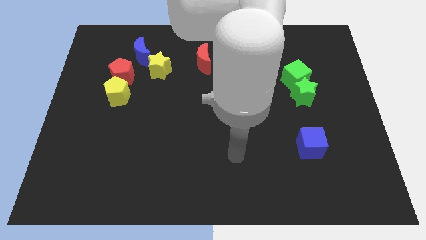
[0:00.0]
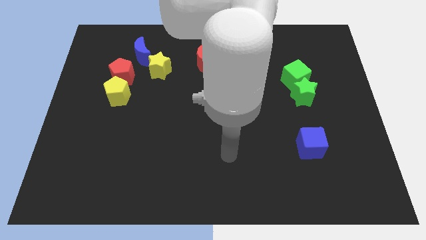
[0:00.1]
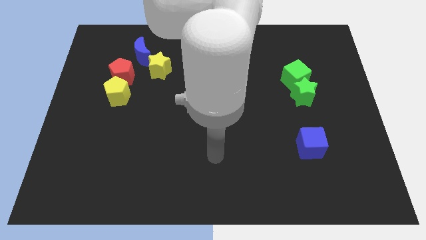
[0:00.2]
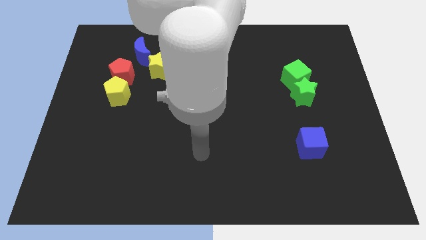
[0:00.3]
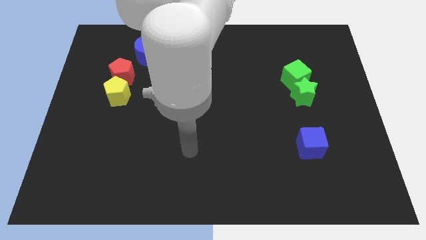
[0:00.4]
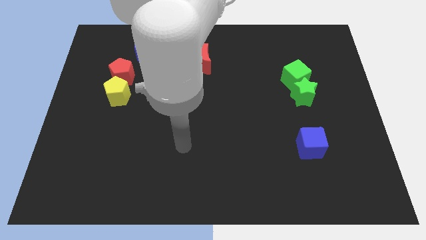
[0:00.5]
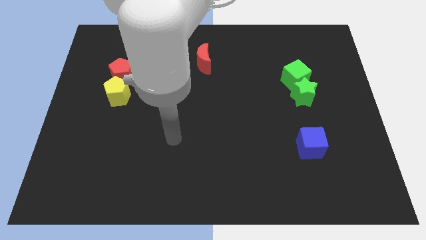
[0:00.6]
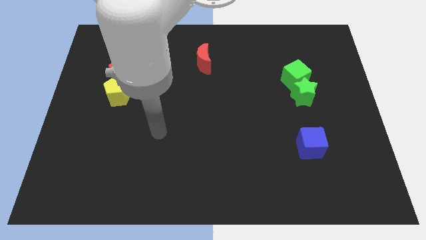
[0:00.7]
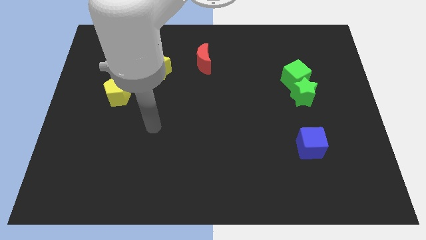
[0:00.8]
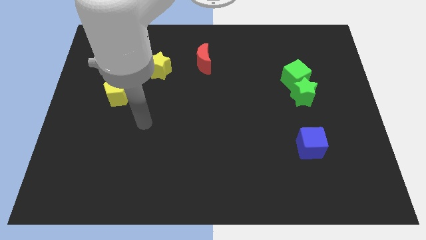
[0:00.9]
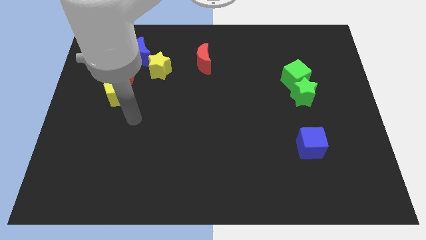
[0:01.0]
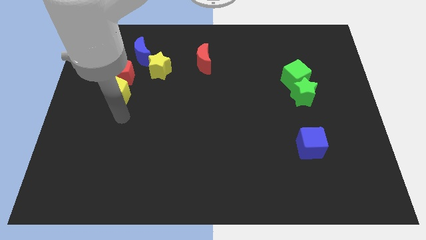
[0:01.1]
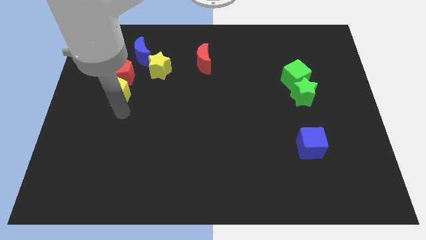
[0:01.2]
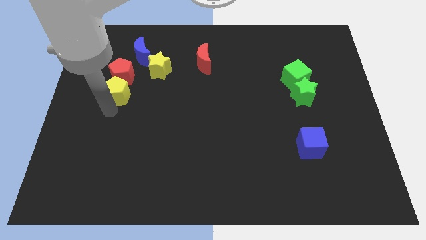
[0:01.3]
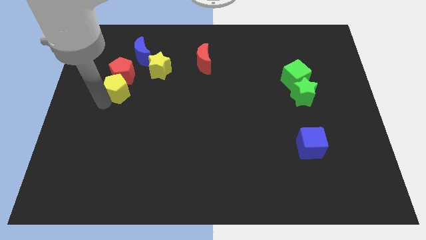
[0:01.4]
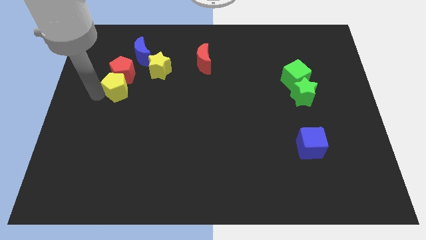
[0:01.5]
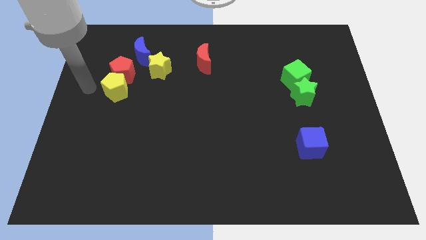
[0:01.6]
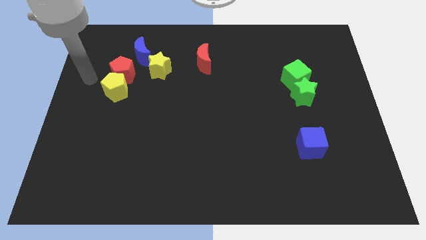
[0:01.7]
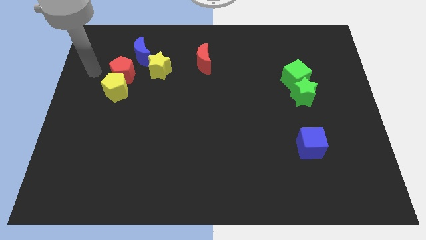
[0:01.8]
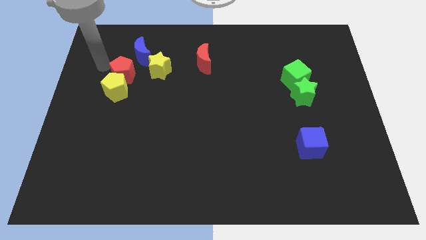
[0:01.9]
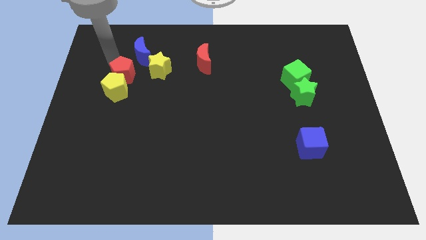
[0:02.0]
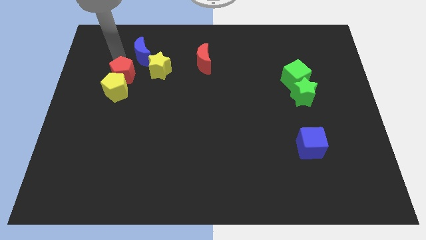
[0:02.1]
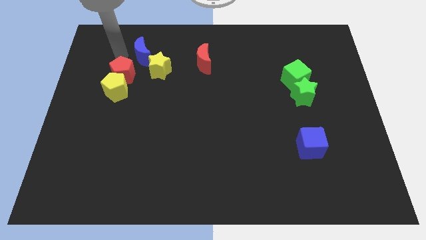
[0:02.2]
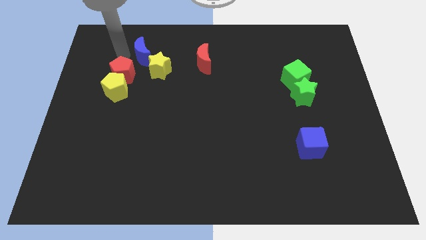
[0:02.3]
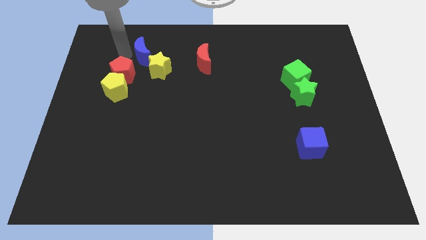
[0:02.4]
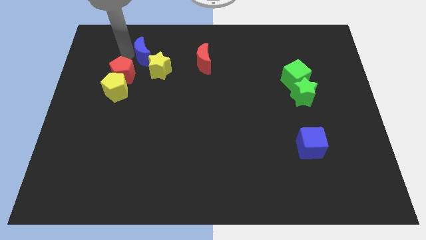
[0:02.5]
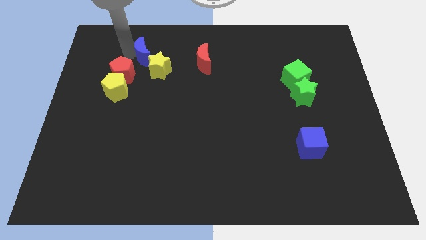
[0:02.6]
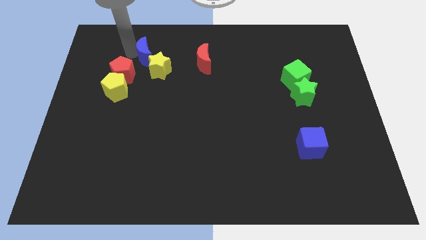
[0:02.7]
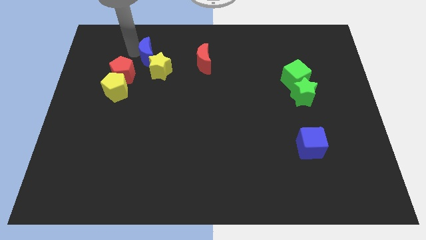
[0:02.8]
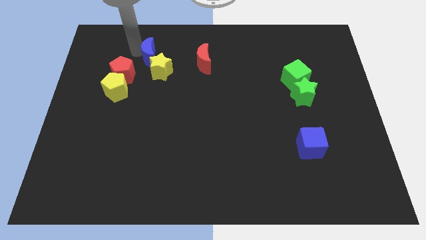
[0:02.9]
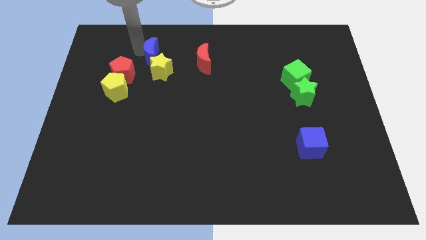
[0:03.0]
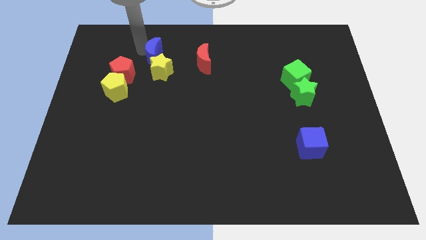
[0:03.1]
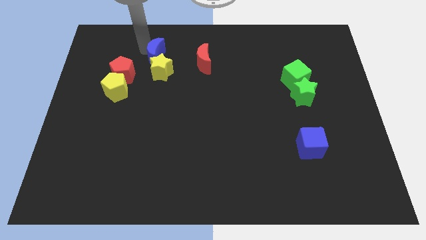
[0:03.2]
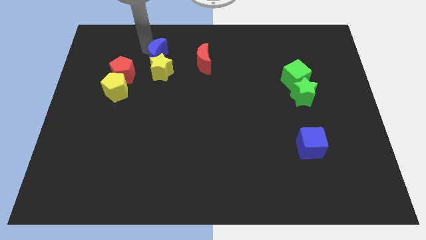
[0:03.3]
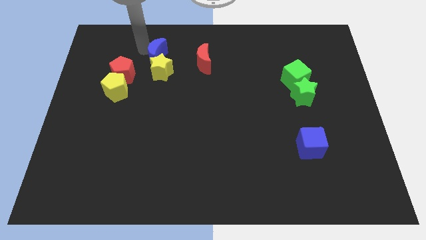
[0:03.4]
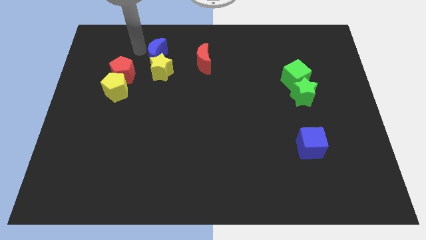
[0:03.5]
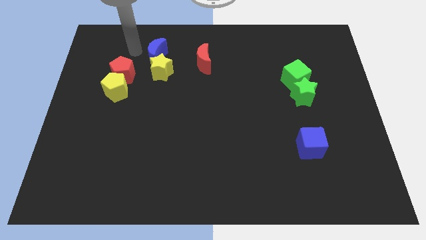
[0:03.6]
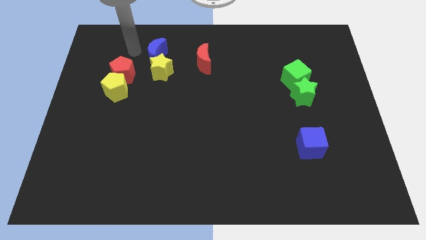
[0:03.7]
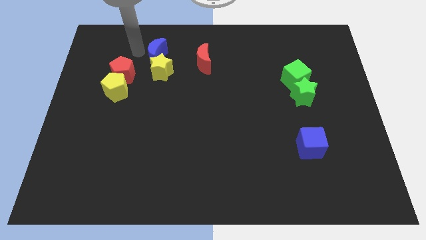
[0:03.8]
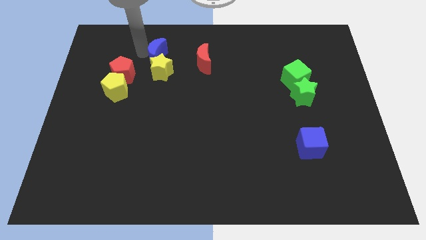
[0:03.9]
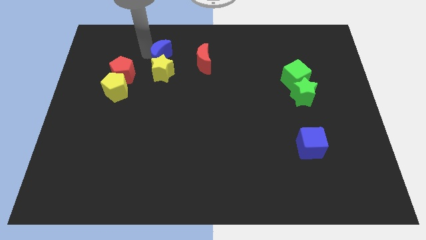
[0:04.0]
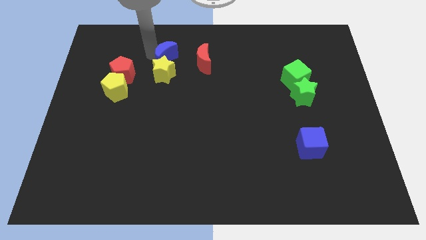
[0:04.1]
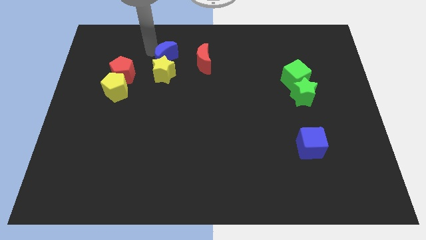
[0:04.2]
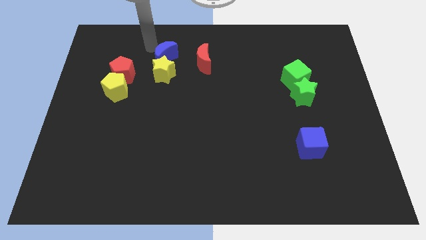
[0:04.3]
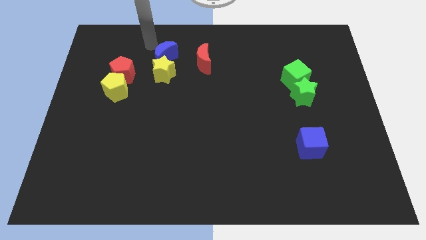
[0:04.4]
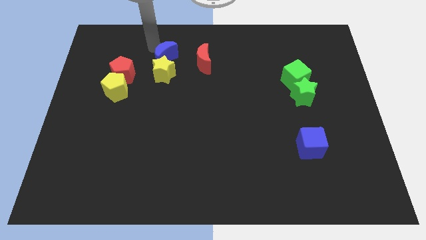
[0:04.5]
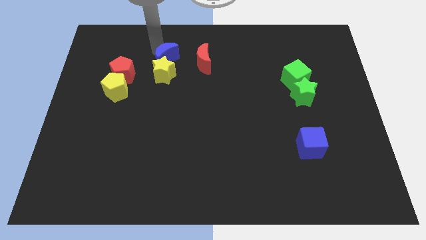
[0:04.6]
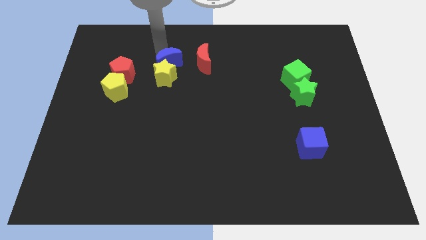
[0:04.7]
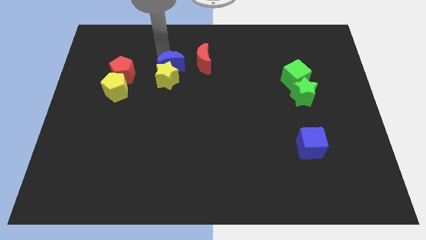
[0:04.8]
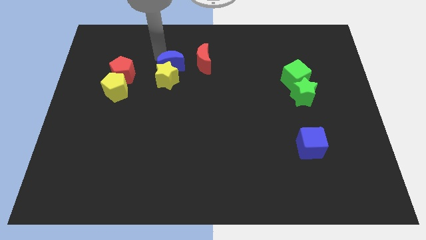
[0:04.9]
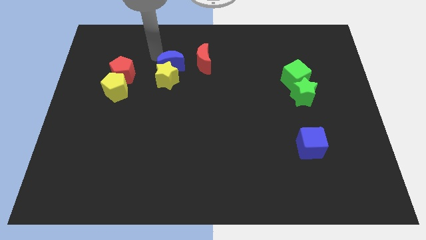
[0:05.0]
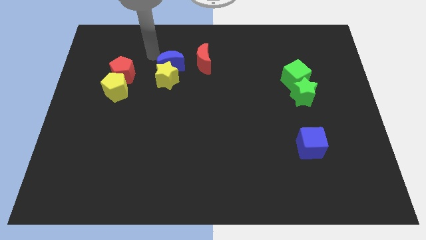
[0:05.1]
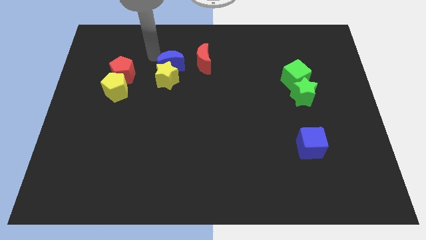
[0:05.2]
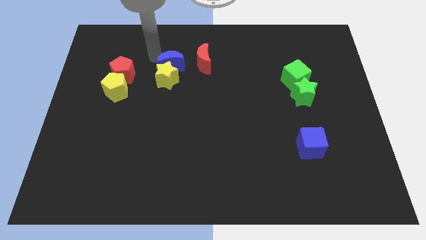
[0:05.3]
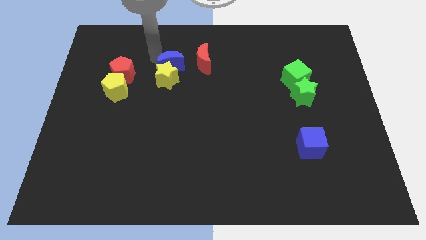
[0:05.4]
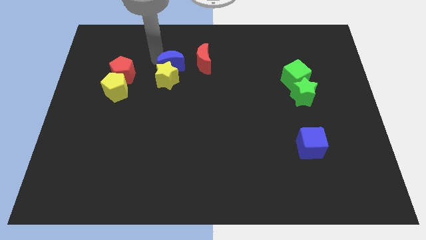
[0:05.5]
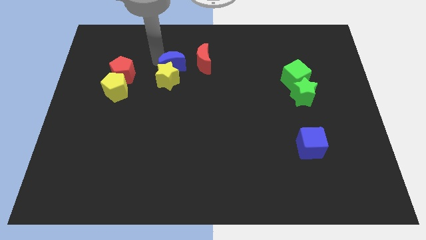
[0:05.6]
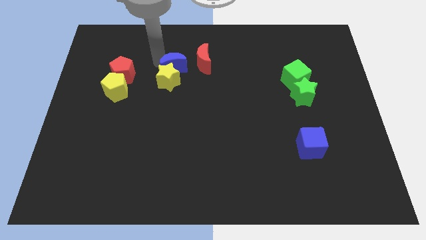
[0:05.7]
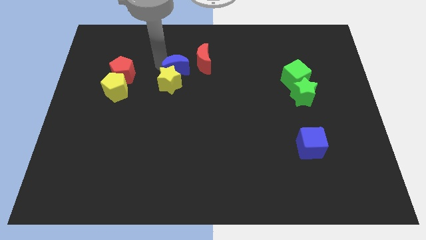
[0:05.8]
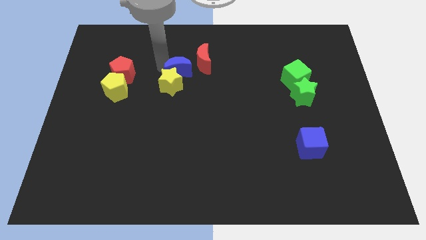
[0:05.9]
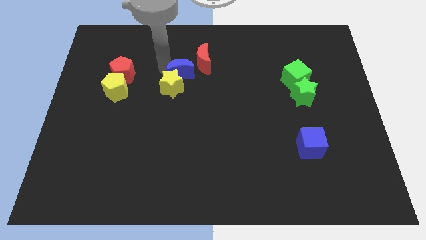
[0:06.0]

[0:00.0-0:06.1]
put the blue moon to the middle

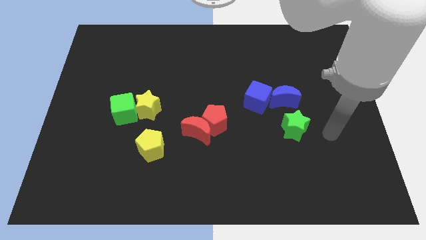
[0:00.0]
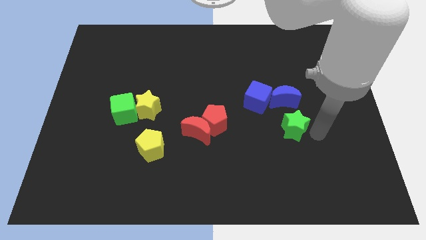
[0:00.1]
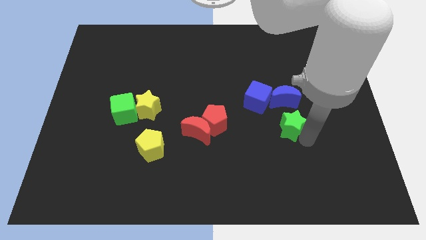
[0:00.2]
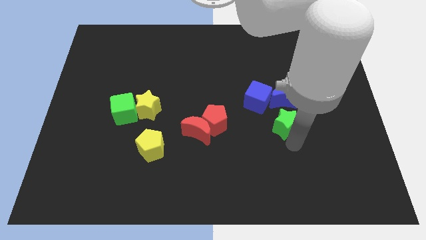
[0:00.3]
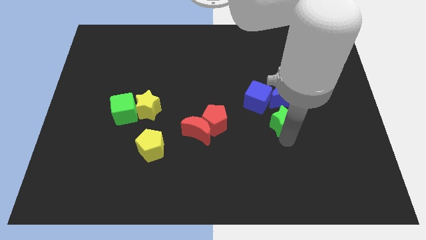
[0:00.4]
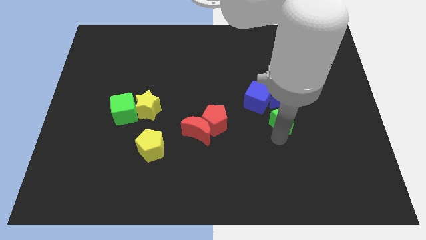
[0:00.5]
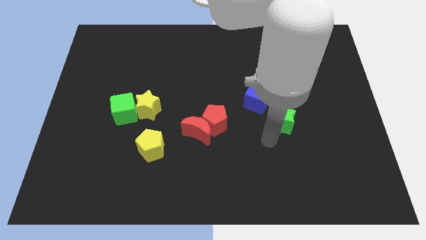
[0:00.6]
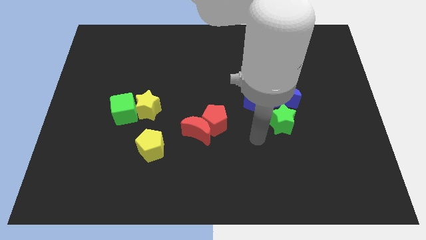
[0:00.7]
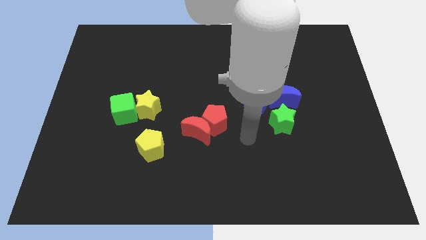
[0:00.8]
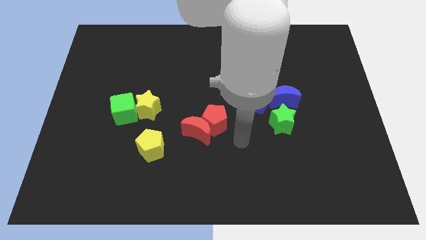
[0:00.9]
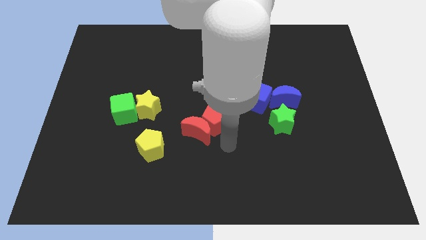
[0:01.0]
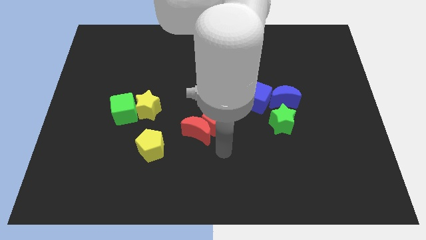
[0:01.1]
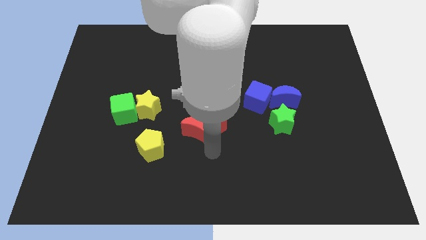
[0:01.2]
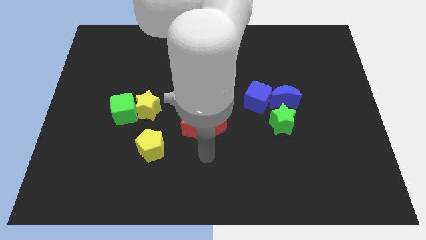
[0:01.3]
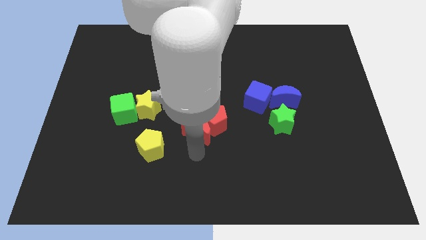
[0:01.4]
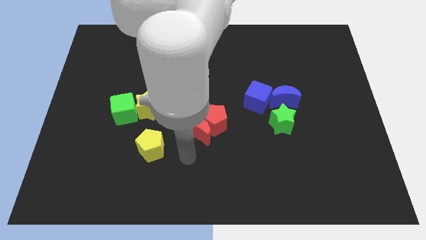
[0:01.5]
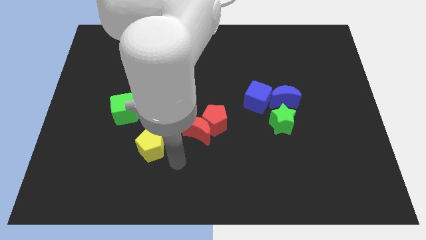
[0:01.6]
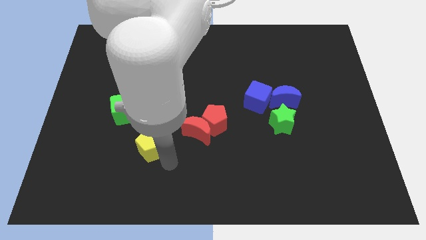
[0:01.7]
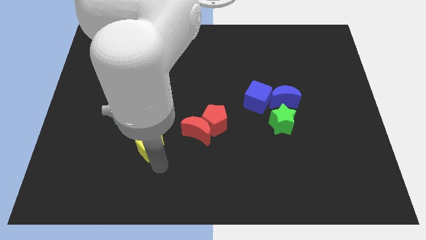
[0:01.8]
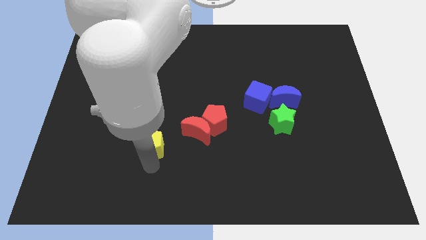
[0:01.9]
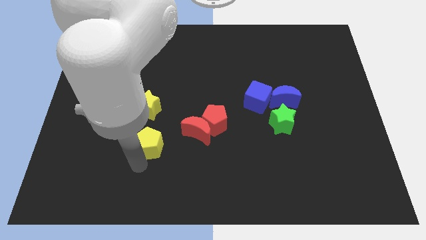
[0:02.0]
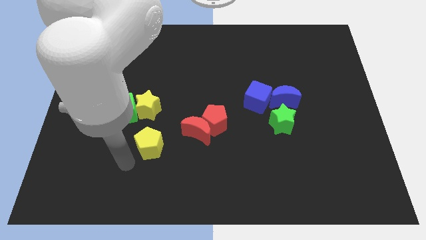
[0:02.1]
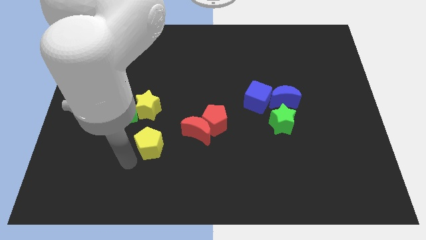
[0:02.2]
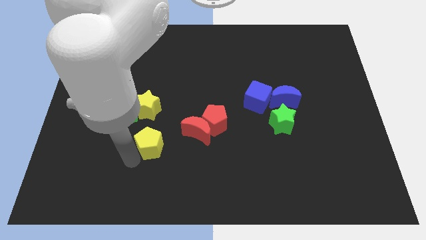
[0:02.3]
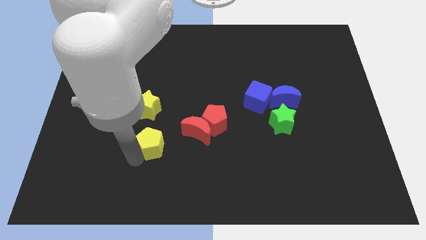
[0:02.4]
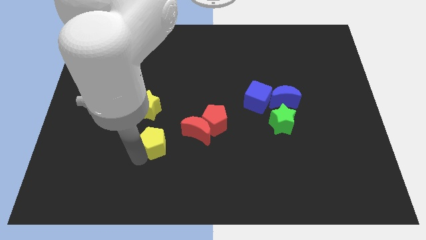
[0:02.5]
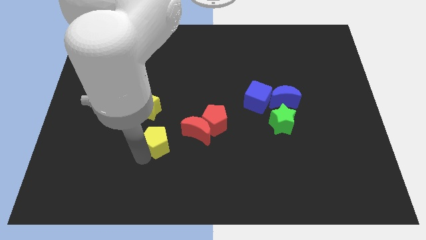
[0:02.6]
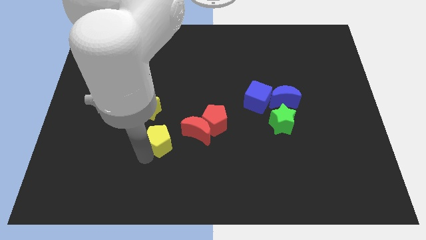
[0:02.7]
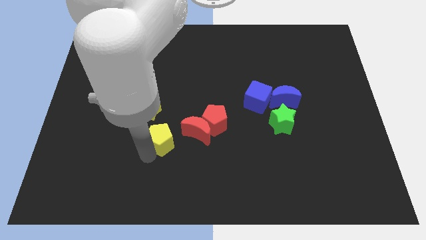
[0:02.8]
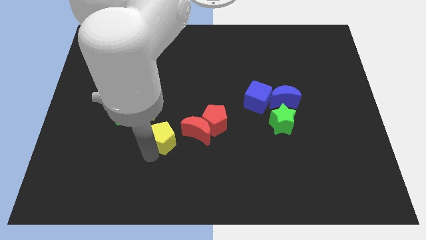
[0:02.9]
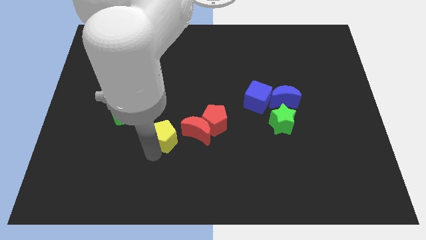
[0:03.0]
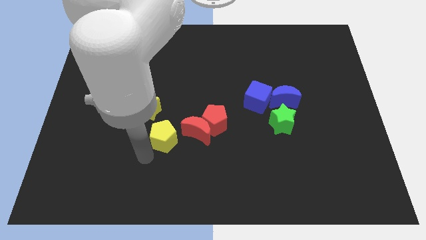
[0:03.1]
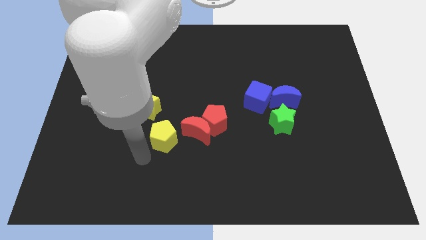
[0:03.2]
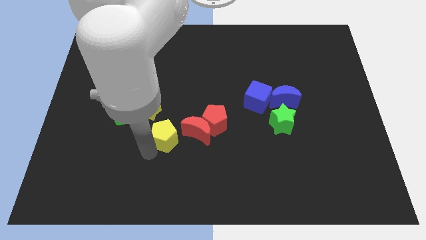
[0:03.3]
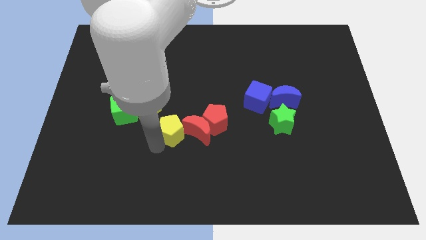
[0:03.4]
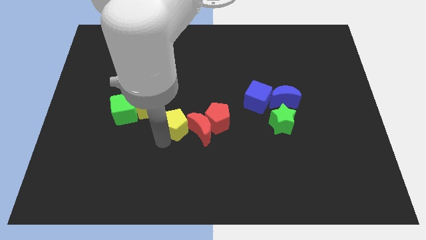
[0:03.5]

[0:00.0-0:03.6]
move the yellow pentagon to the center
